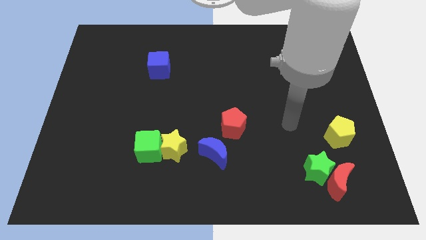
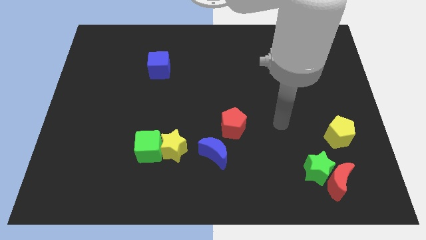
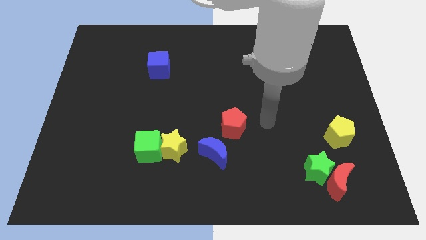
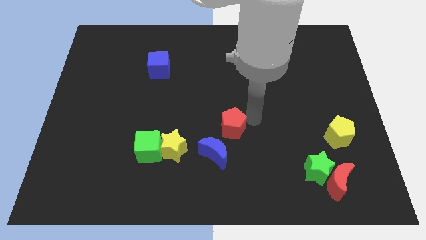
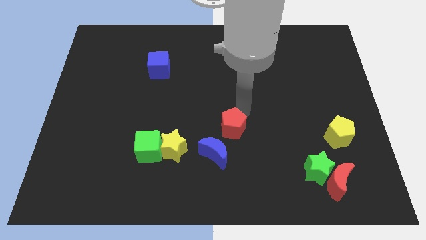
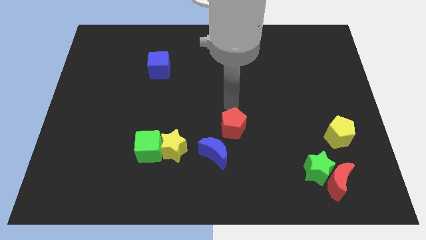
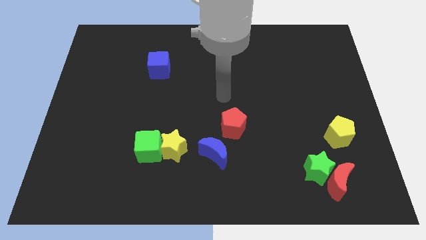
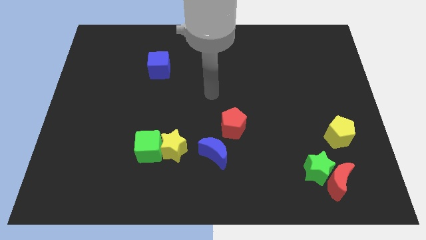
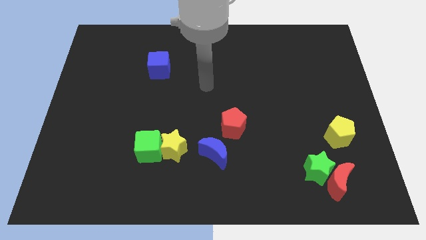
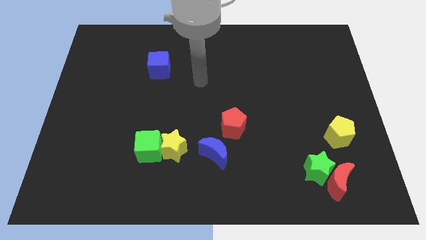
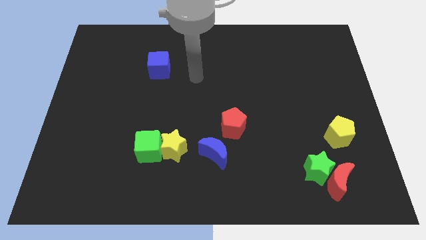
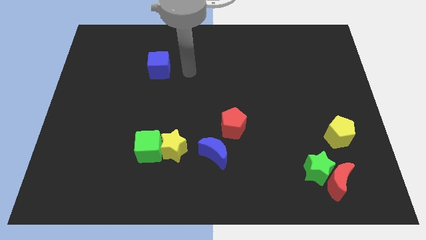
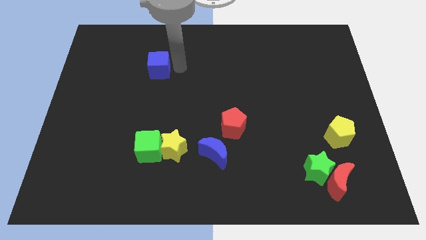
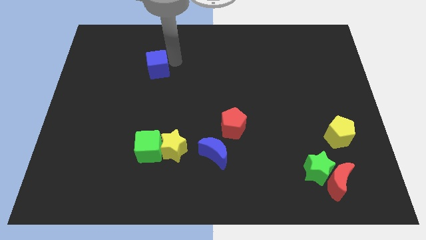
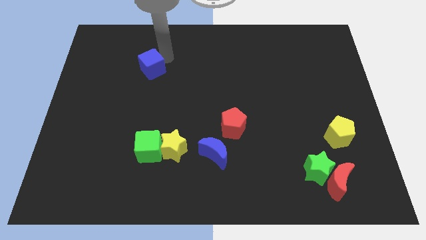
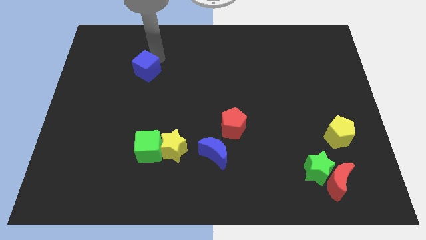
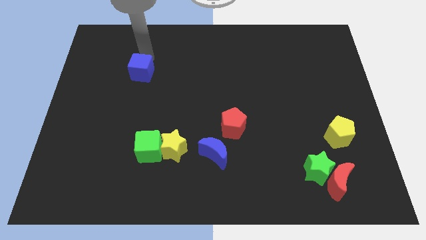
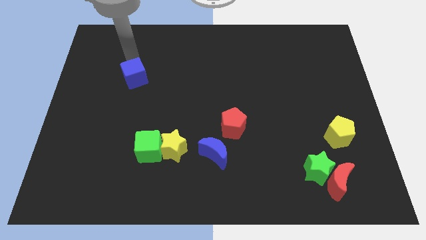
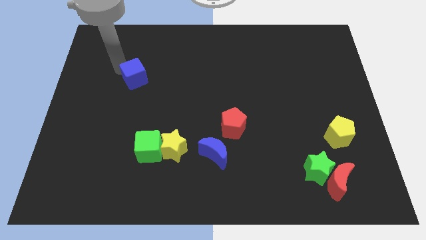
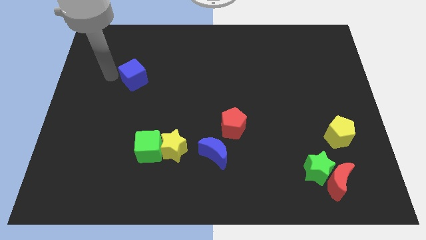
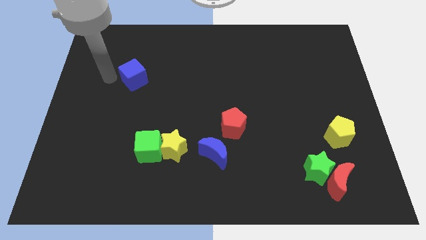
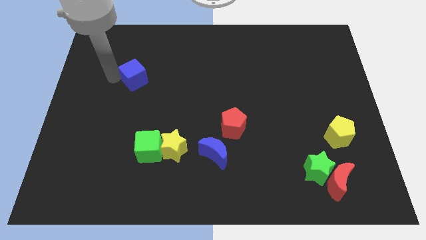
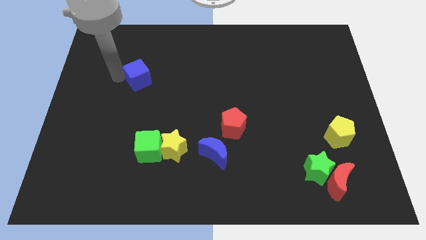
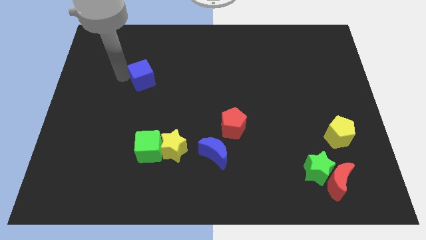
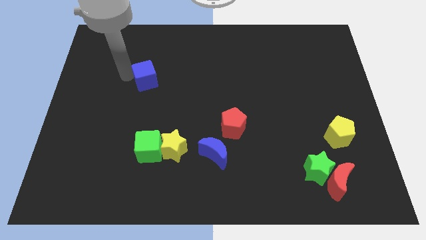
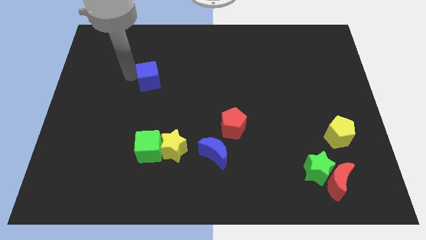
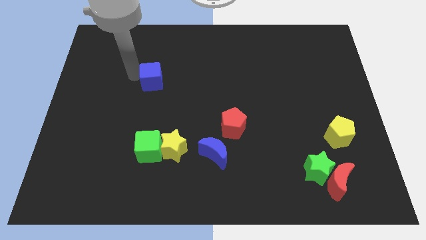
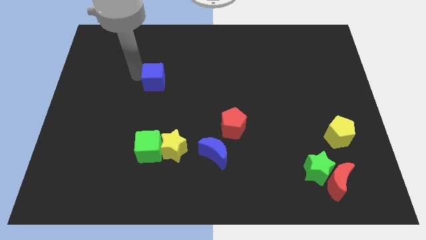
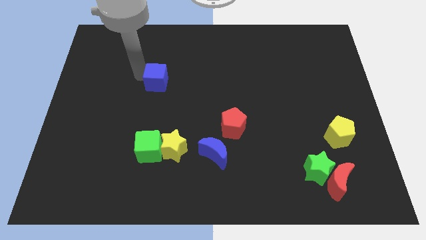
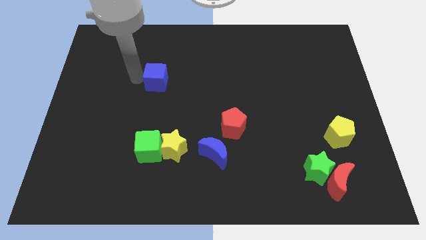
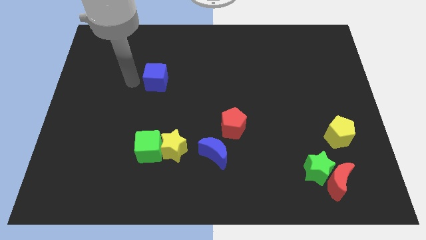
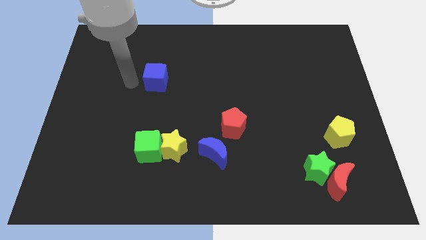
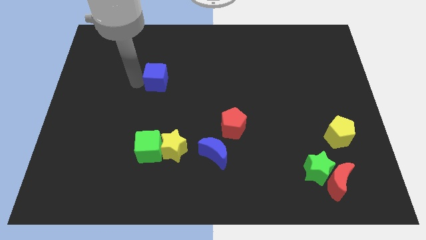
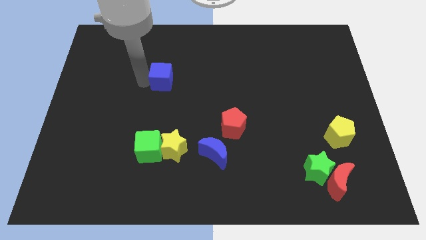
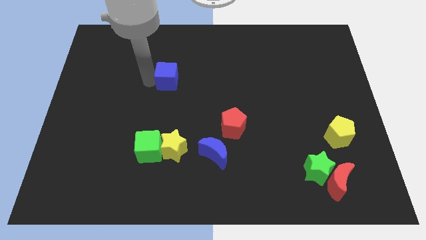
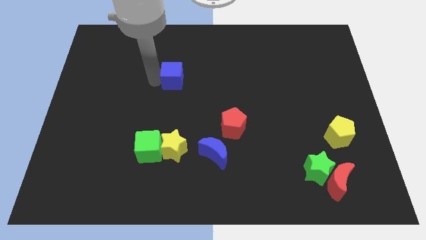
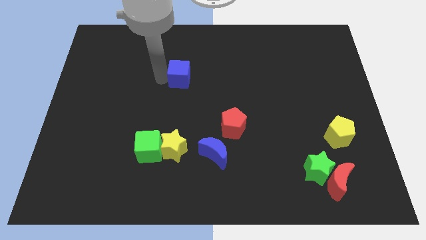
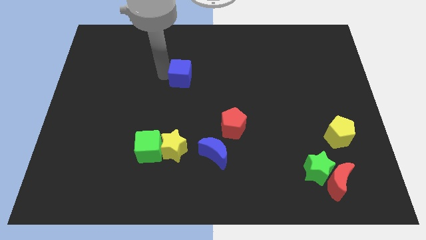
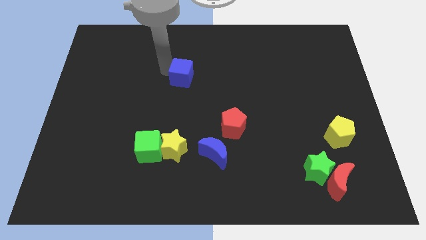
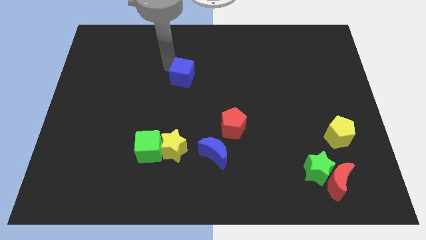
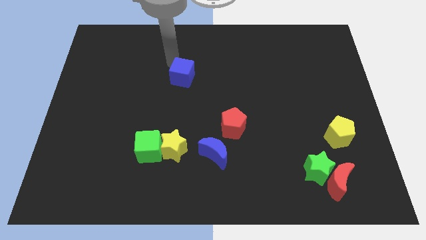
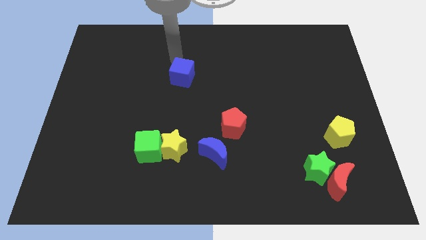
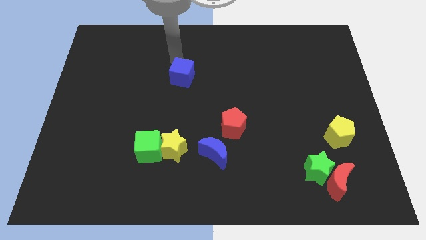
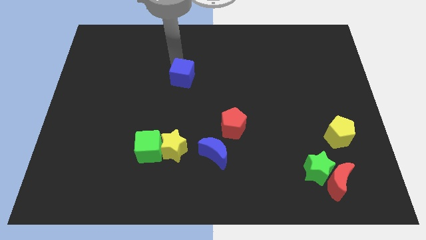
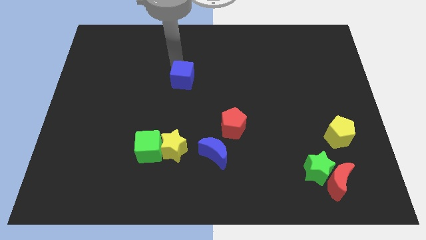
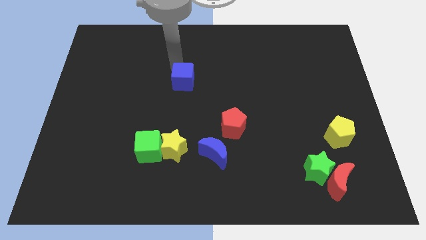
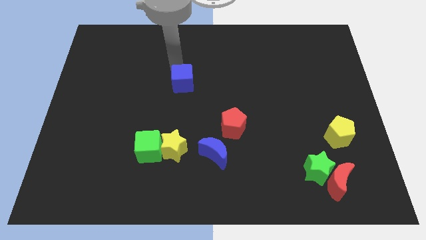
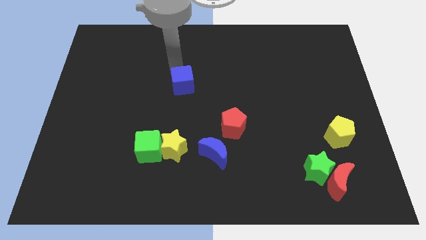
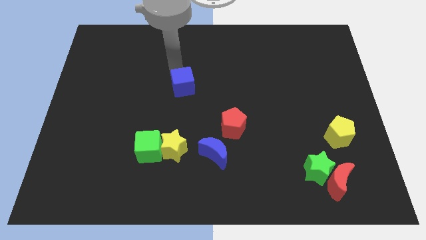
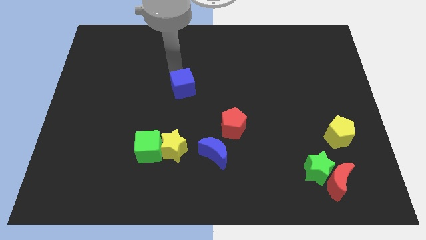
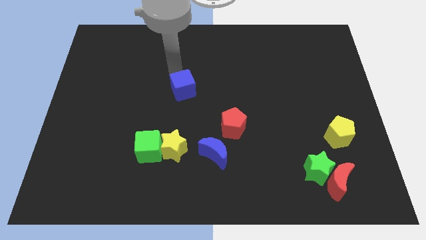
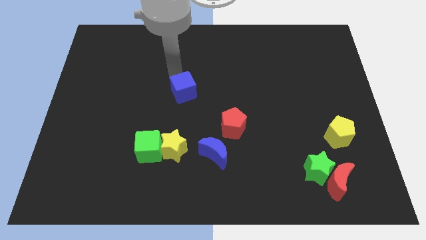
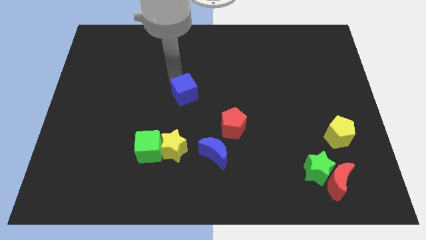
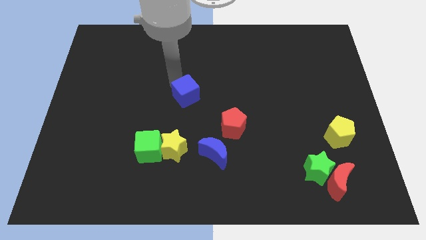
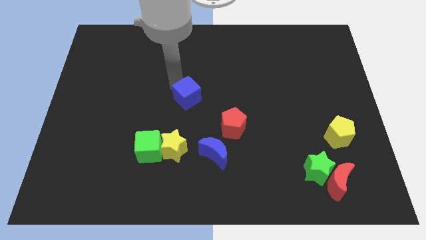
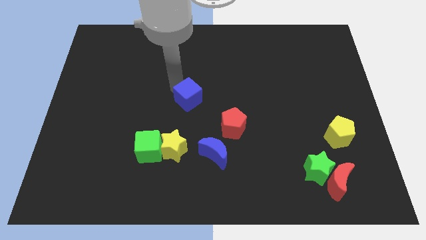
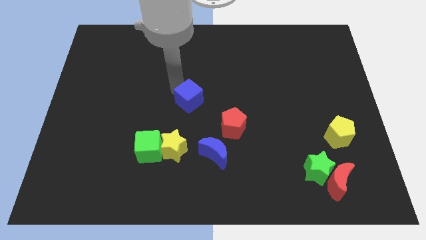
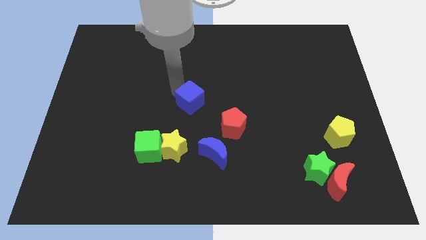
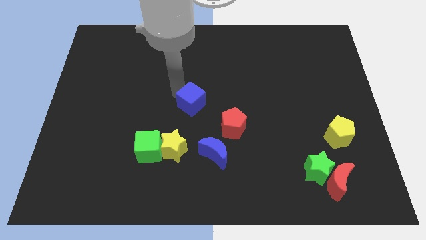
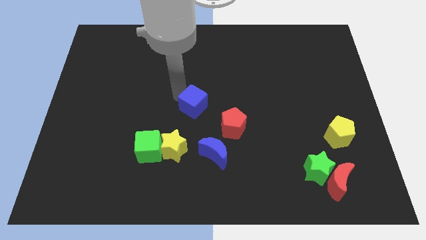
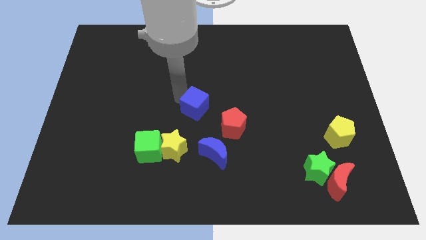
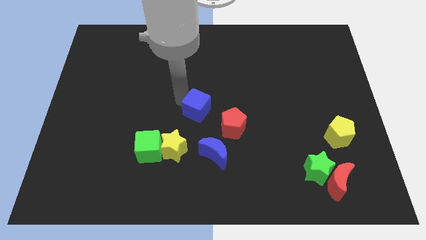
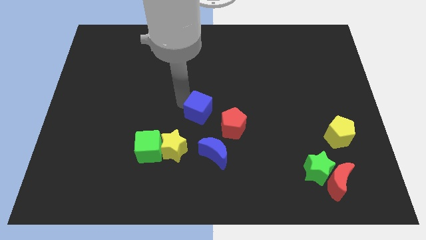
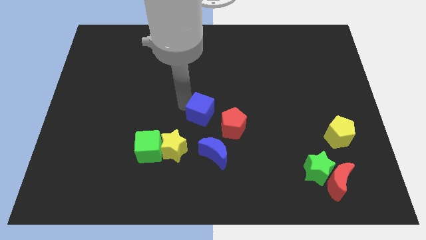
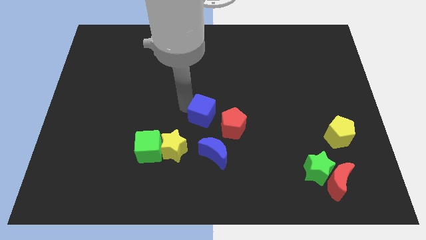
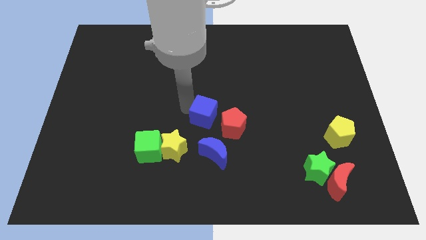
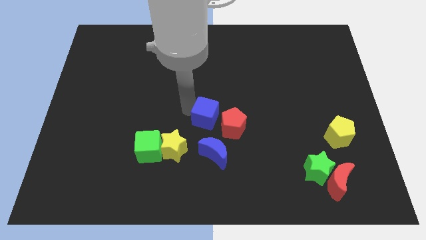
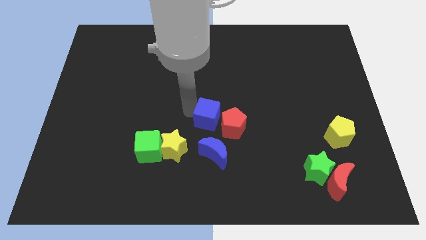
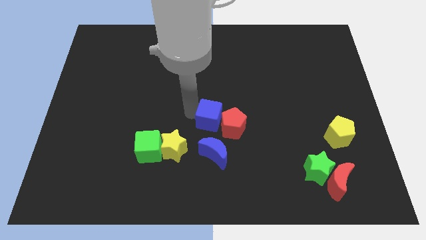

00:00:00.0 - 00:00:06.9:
push the blue cube to the red pentagon
